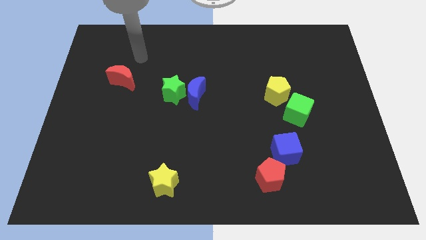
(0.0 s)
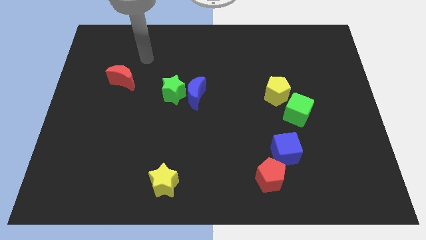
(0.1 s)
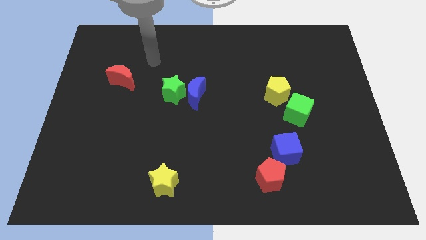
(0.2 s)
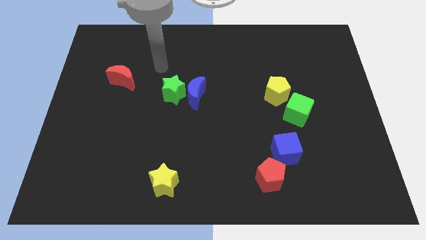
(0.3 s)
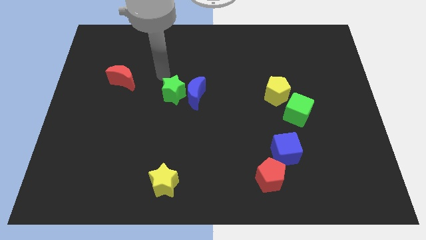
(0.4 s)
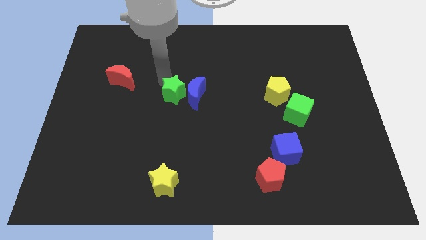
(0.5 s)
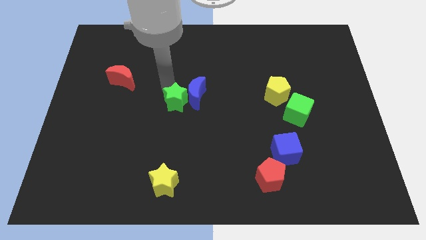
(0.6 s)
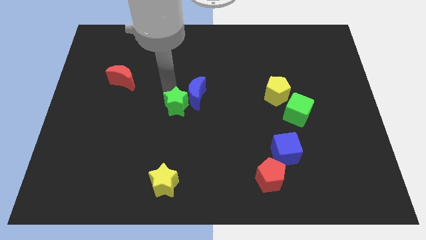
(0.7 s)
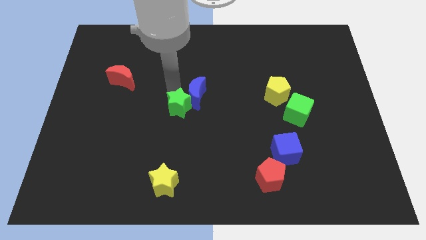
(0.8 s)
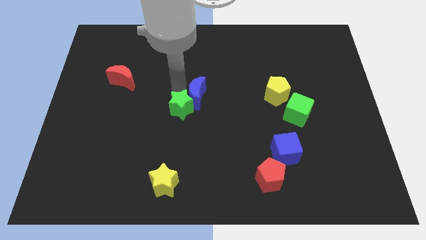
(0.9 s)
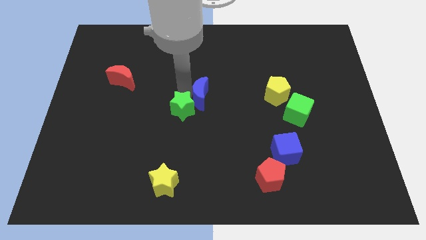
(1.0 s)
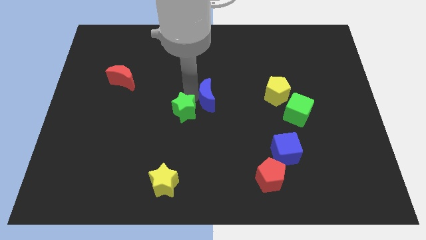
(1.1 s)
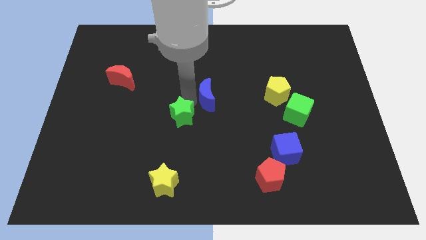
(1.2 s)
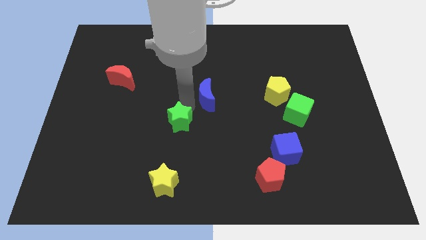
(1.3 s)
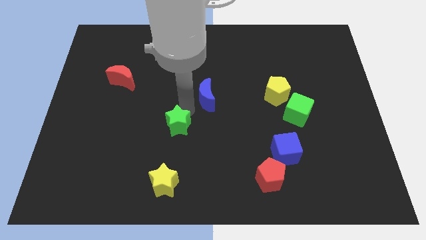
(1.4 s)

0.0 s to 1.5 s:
move the blue moon away from the green star

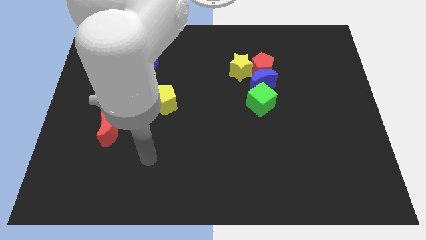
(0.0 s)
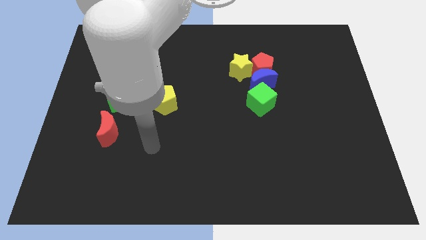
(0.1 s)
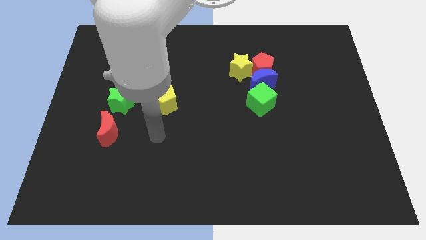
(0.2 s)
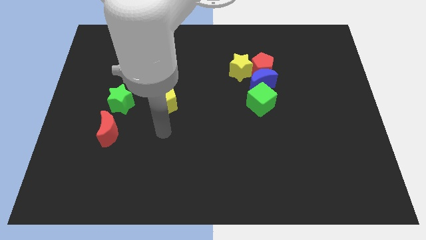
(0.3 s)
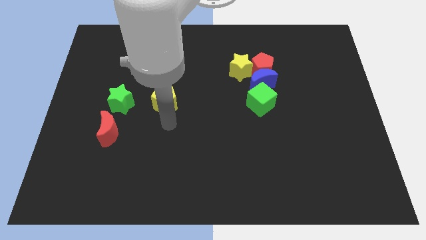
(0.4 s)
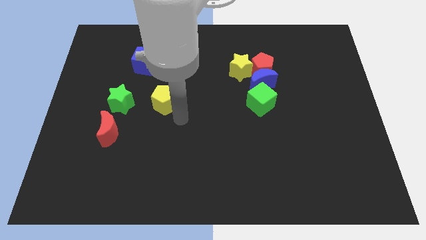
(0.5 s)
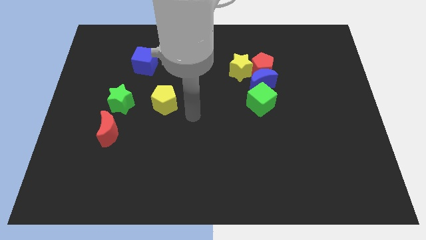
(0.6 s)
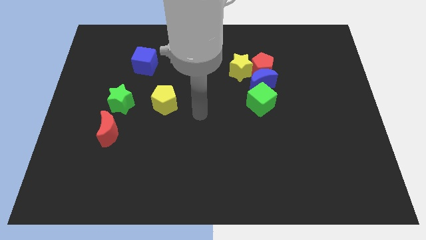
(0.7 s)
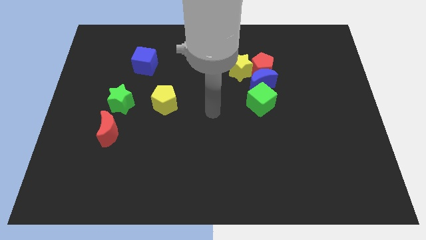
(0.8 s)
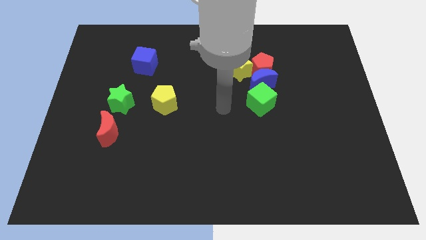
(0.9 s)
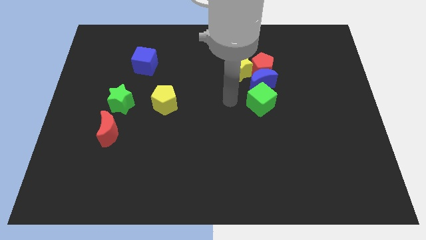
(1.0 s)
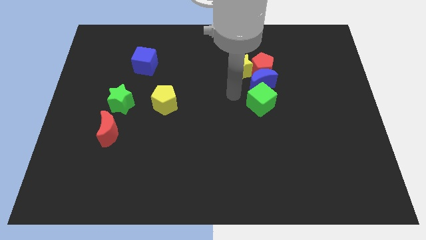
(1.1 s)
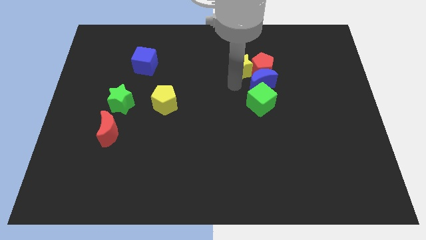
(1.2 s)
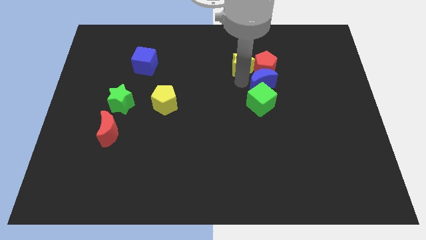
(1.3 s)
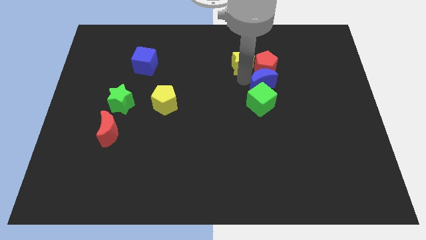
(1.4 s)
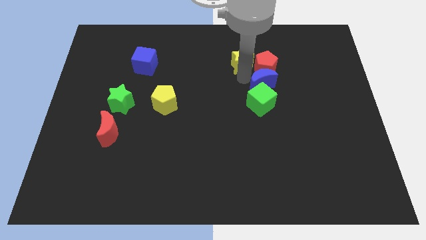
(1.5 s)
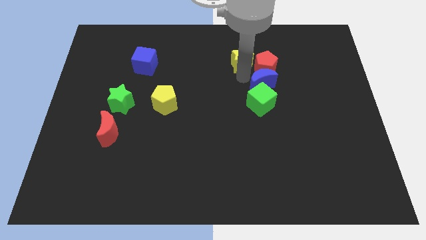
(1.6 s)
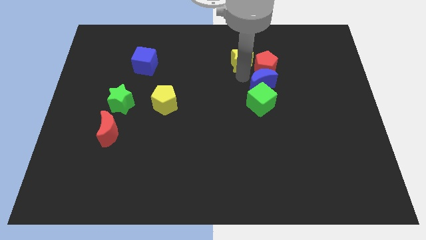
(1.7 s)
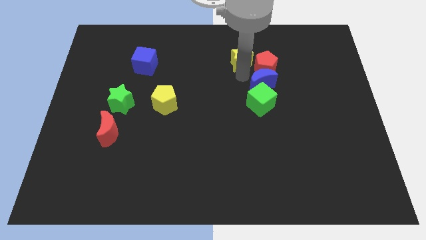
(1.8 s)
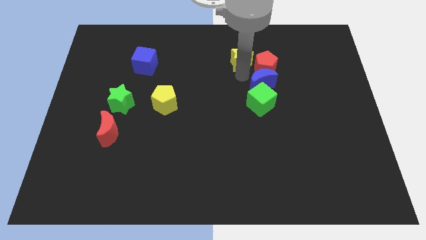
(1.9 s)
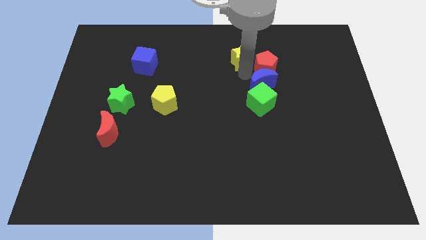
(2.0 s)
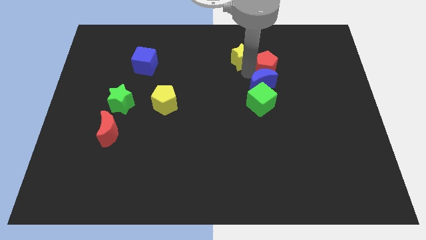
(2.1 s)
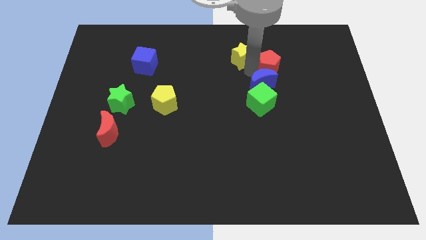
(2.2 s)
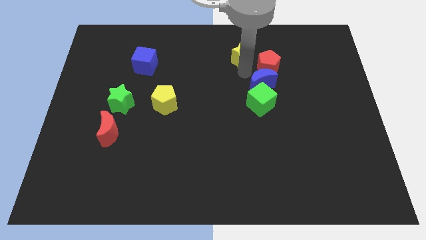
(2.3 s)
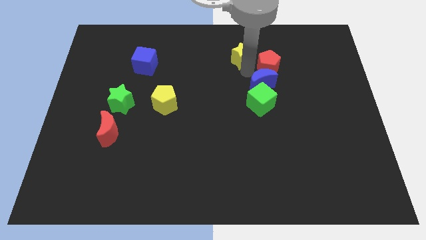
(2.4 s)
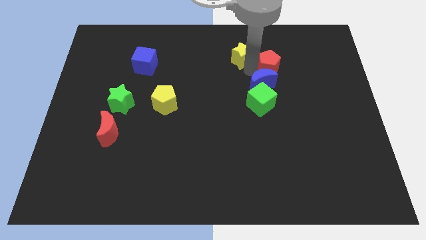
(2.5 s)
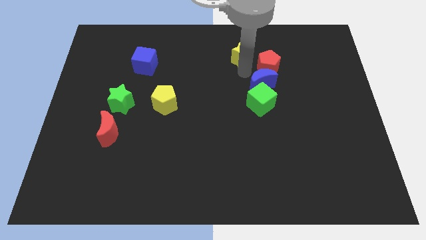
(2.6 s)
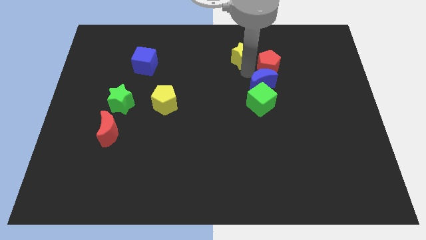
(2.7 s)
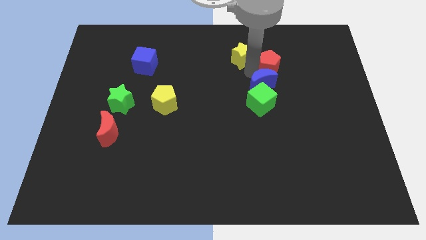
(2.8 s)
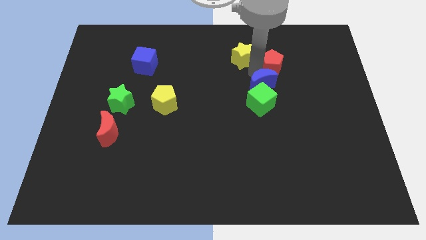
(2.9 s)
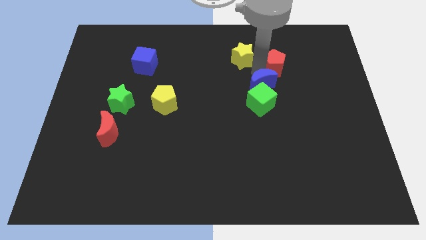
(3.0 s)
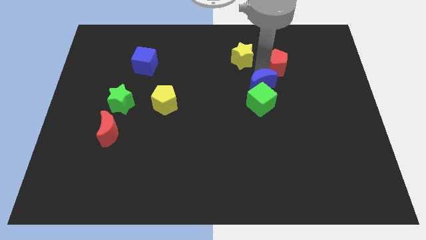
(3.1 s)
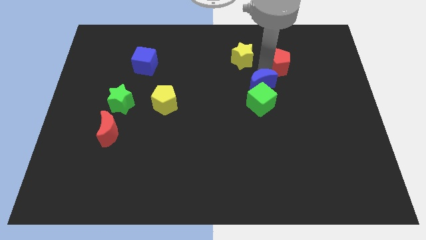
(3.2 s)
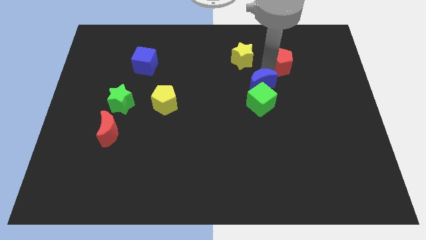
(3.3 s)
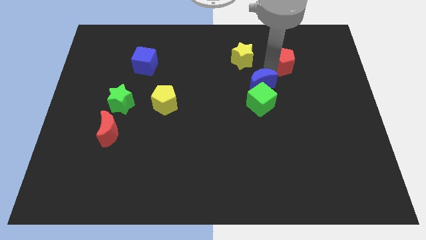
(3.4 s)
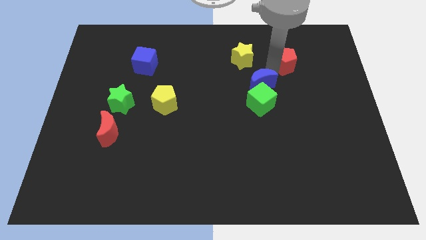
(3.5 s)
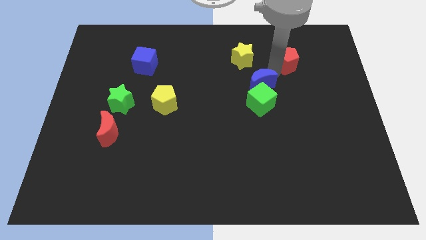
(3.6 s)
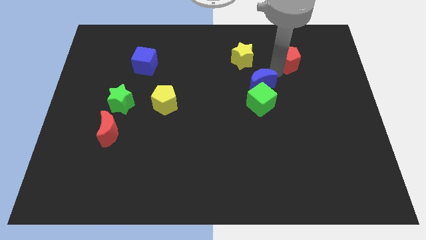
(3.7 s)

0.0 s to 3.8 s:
pull the red pentagon apart from the blue moon and yellow star

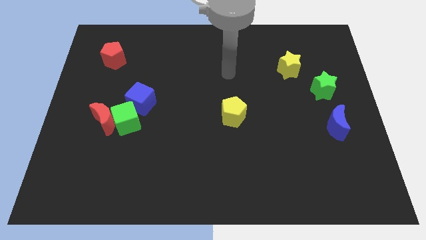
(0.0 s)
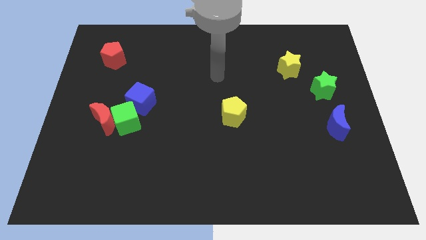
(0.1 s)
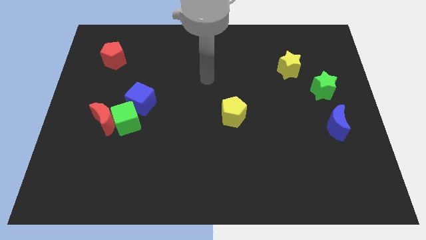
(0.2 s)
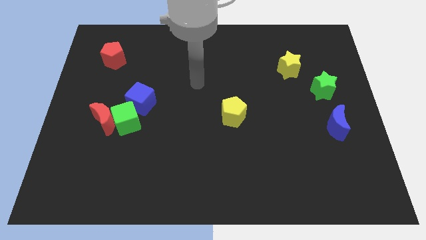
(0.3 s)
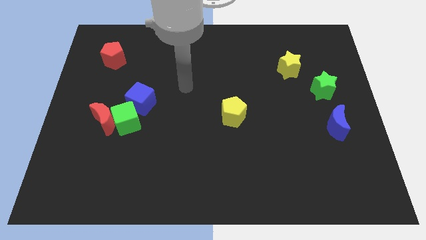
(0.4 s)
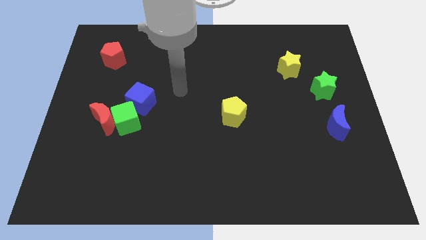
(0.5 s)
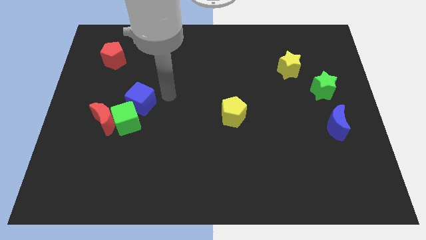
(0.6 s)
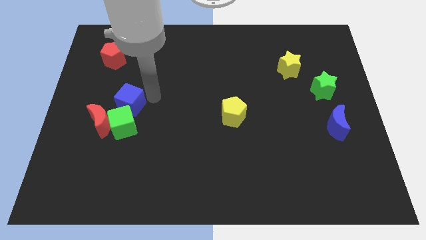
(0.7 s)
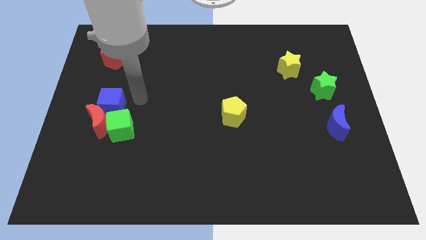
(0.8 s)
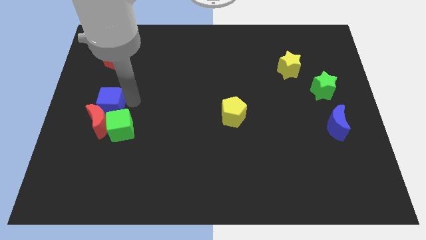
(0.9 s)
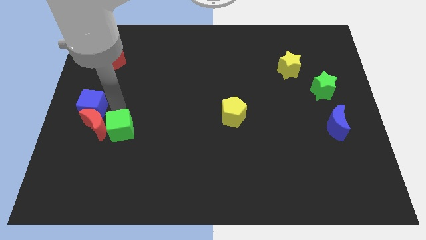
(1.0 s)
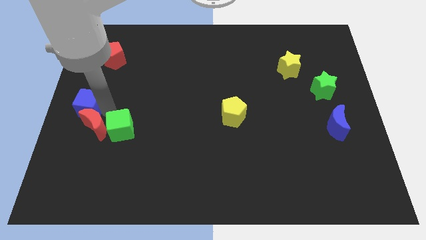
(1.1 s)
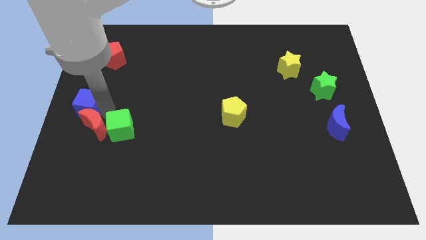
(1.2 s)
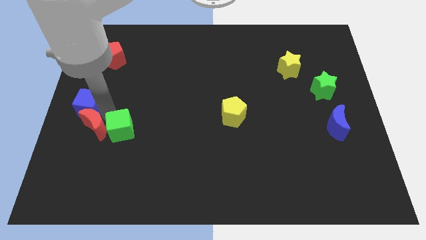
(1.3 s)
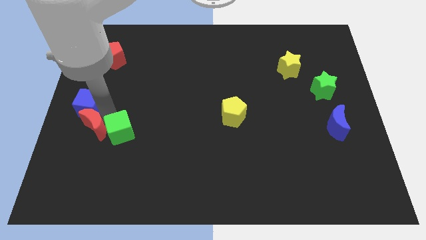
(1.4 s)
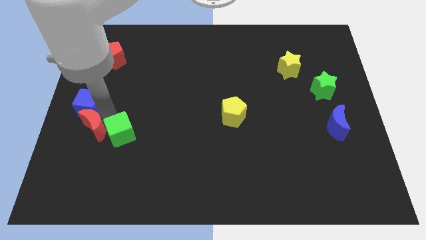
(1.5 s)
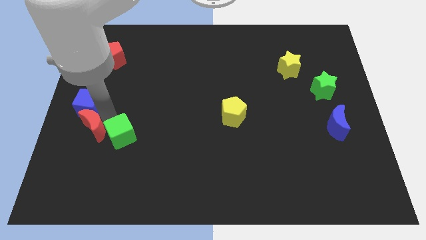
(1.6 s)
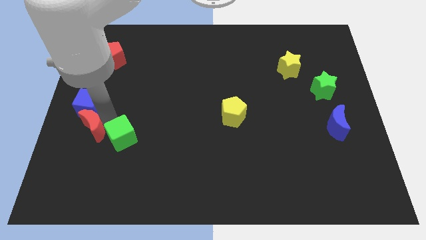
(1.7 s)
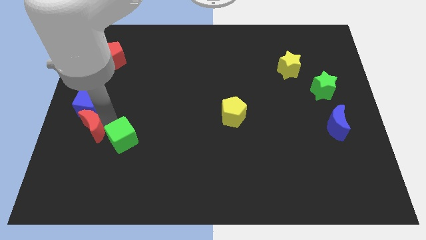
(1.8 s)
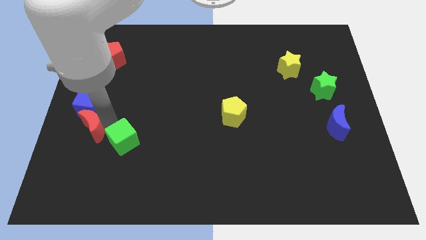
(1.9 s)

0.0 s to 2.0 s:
separate the green cube from the red moon and blue cube

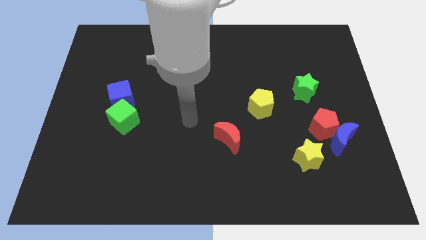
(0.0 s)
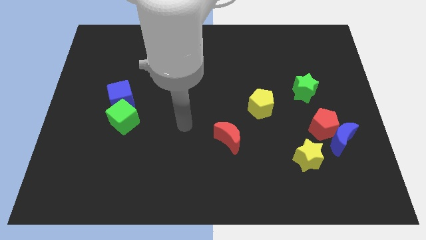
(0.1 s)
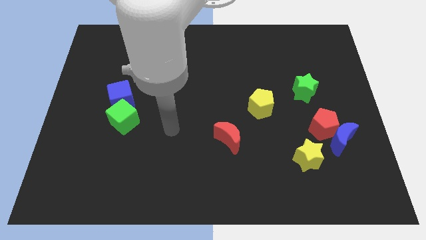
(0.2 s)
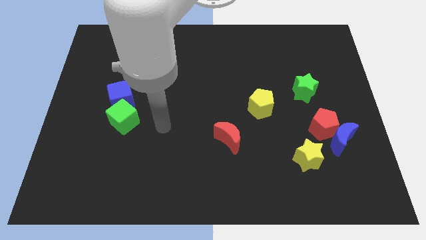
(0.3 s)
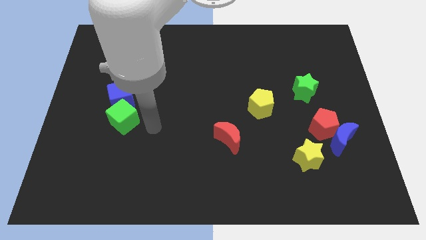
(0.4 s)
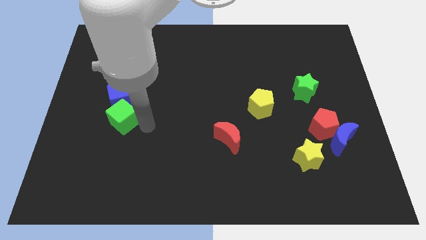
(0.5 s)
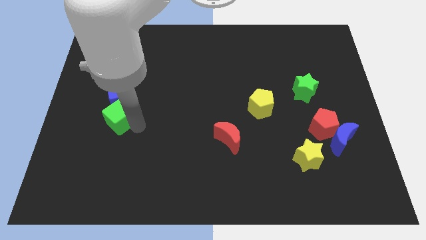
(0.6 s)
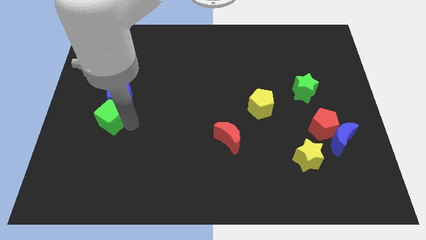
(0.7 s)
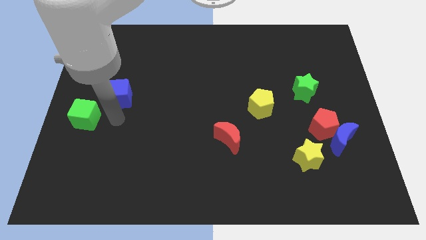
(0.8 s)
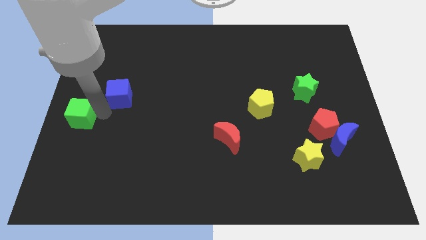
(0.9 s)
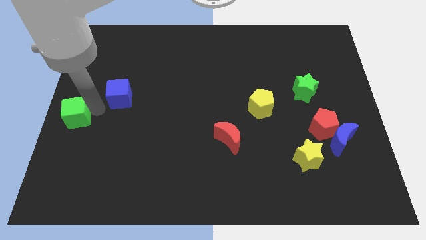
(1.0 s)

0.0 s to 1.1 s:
move the blue cube away from the green cube

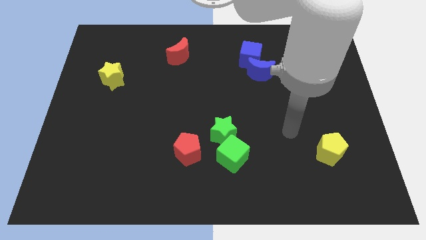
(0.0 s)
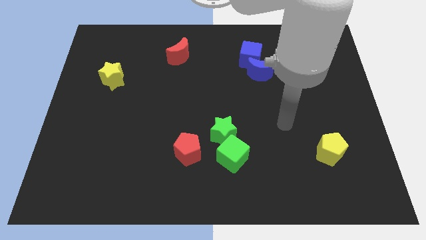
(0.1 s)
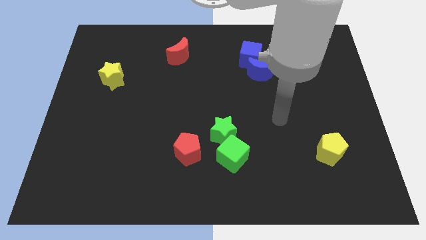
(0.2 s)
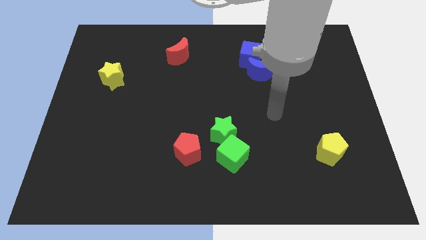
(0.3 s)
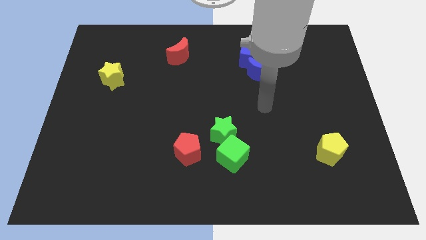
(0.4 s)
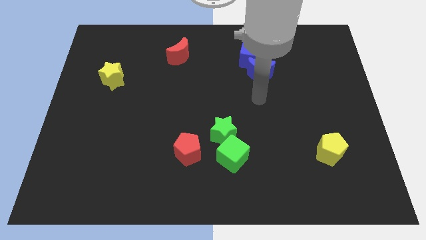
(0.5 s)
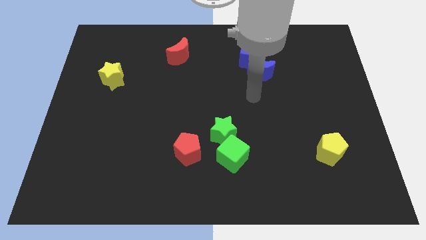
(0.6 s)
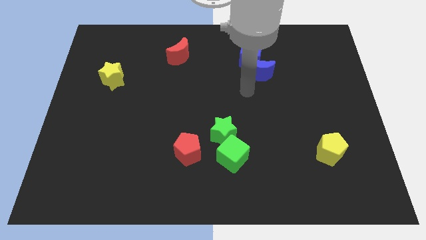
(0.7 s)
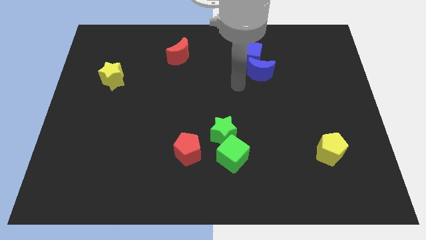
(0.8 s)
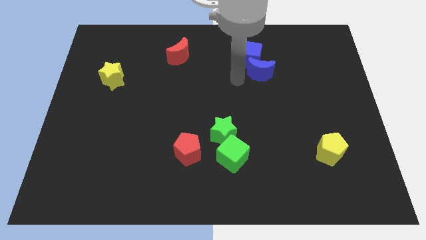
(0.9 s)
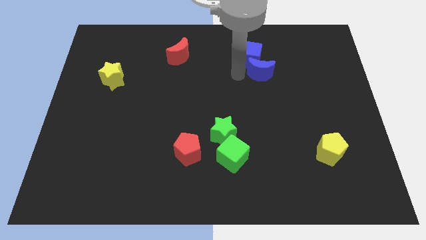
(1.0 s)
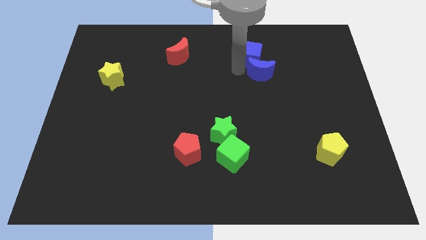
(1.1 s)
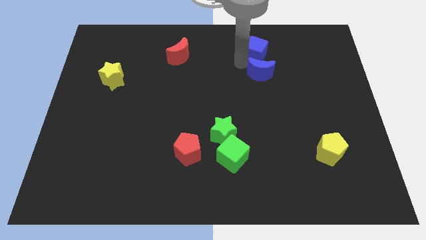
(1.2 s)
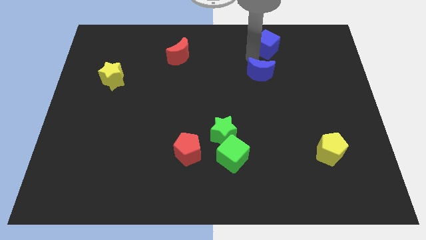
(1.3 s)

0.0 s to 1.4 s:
separate the blue moon from the blue cube
